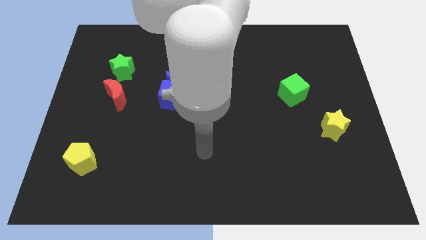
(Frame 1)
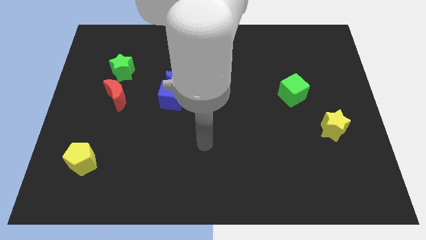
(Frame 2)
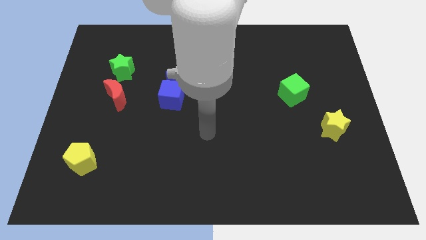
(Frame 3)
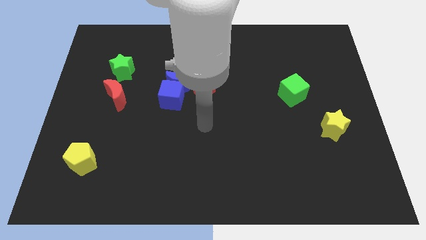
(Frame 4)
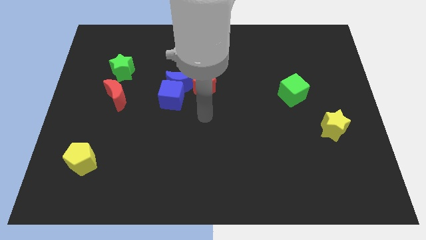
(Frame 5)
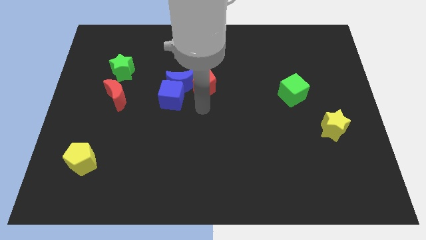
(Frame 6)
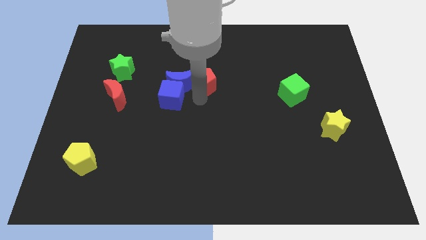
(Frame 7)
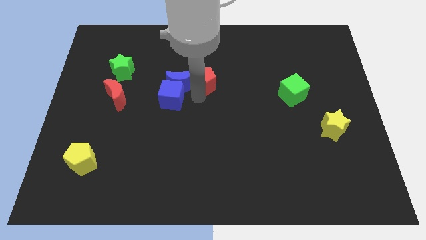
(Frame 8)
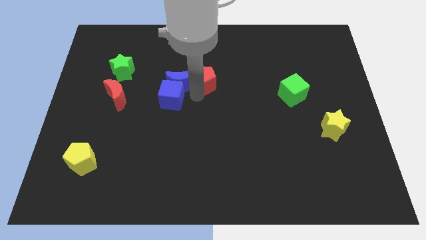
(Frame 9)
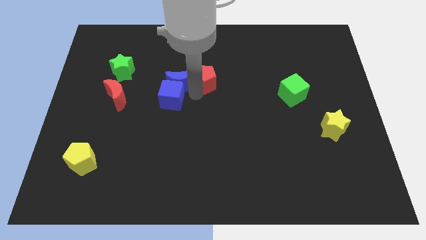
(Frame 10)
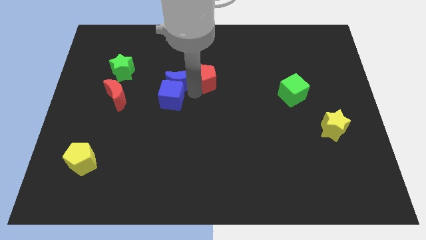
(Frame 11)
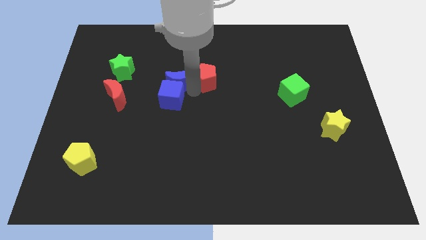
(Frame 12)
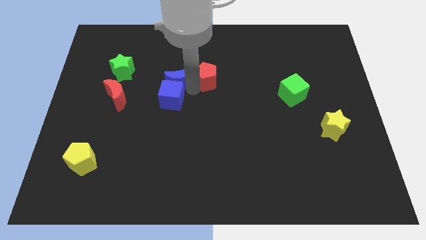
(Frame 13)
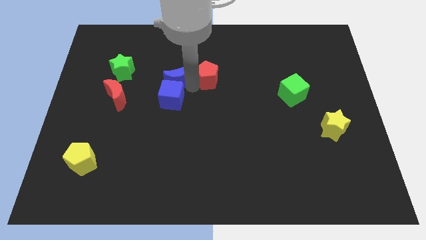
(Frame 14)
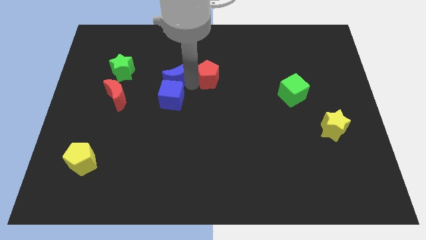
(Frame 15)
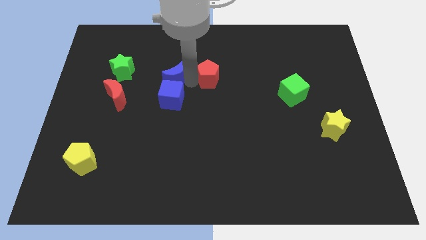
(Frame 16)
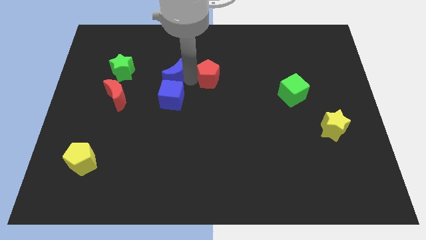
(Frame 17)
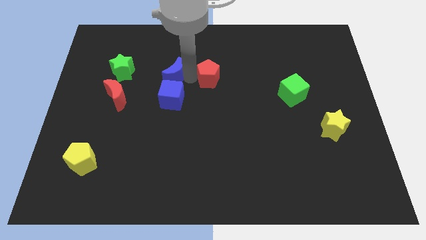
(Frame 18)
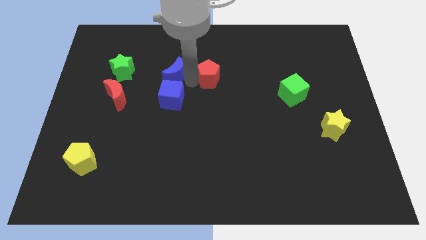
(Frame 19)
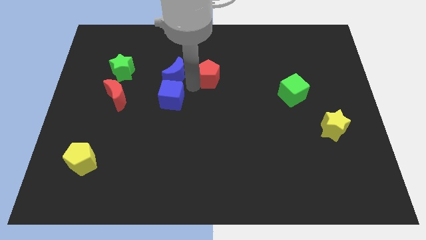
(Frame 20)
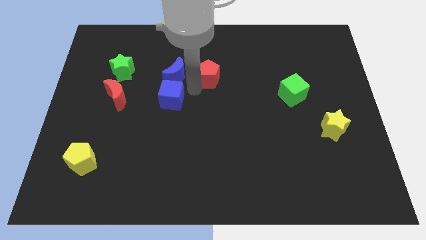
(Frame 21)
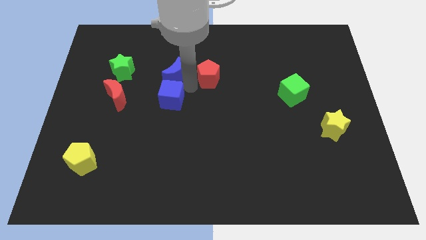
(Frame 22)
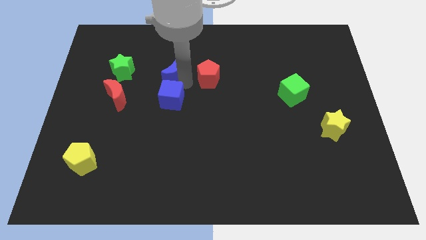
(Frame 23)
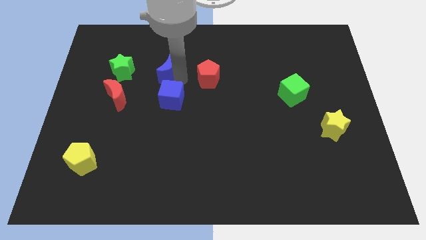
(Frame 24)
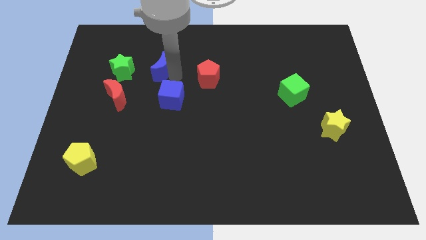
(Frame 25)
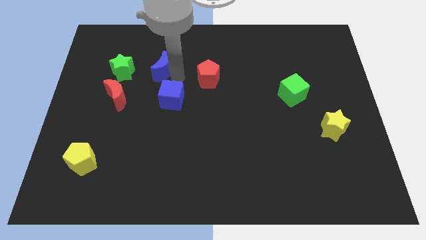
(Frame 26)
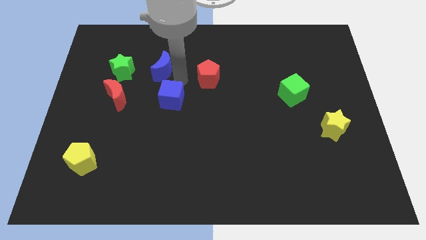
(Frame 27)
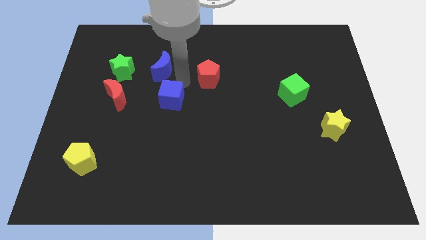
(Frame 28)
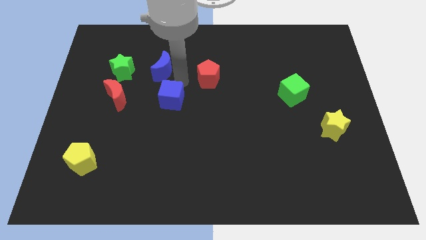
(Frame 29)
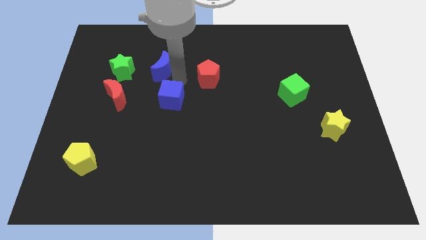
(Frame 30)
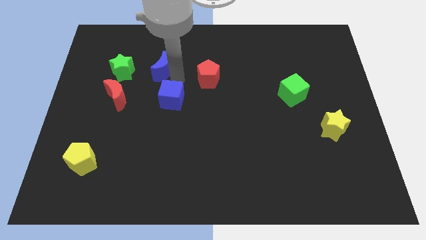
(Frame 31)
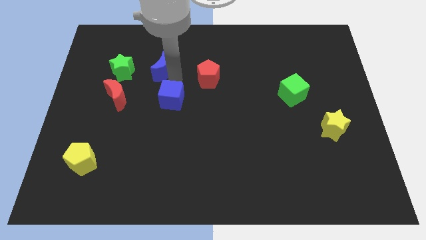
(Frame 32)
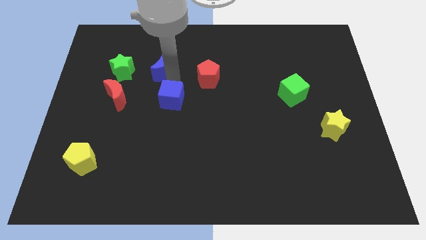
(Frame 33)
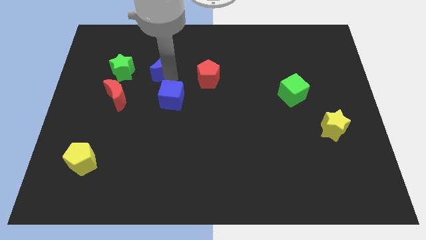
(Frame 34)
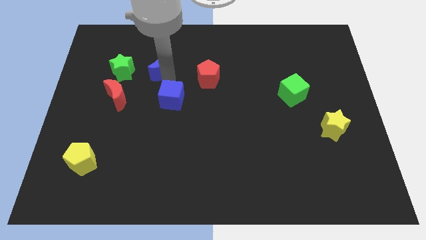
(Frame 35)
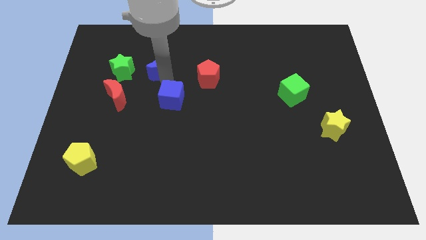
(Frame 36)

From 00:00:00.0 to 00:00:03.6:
pull the blue moon apart from the blue cube and red pentagon

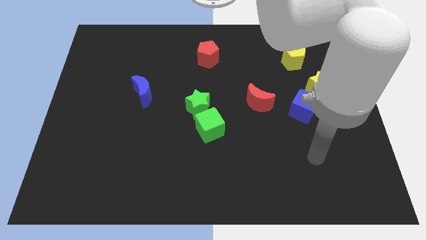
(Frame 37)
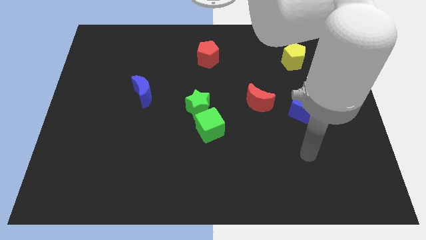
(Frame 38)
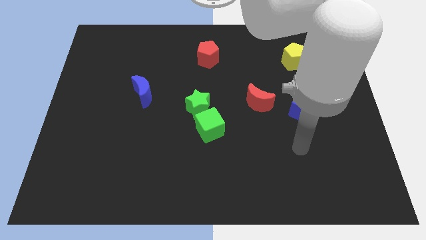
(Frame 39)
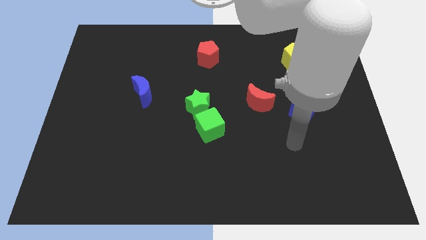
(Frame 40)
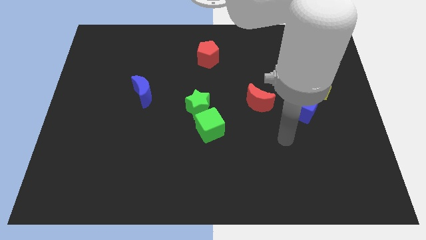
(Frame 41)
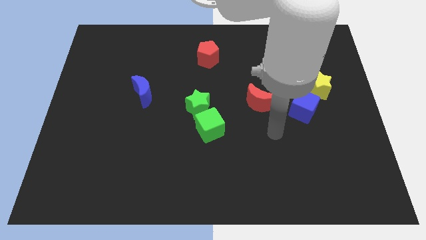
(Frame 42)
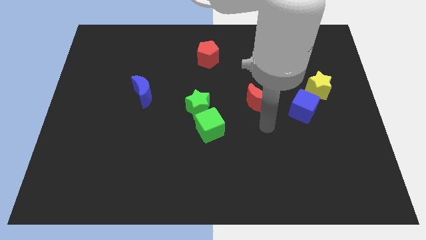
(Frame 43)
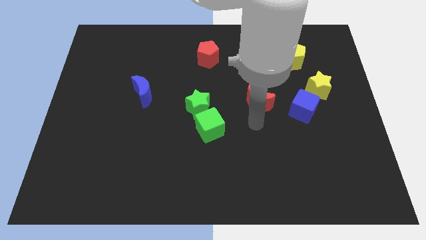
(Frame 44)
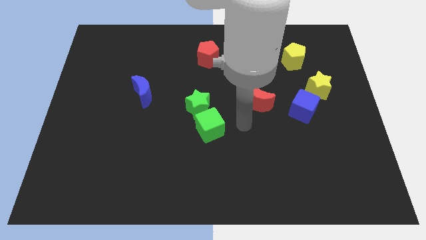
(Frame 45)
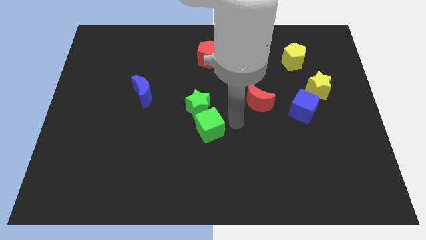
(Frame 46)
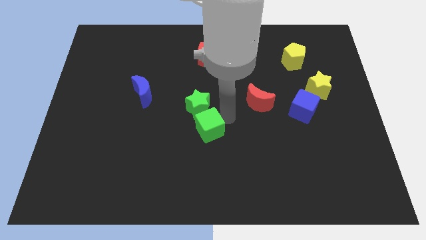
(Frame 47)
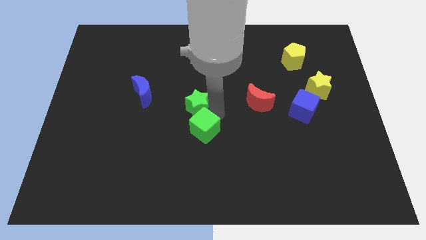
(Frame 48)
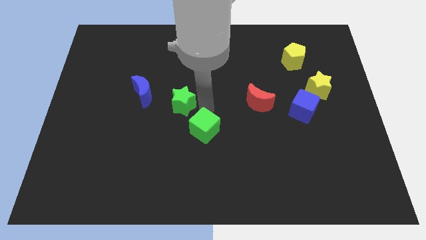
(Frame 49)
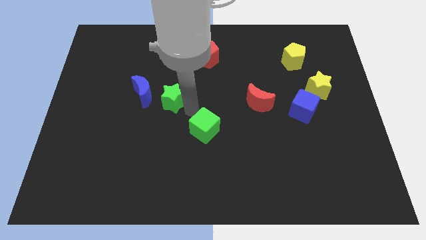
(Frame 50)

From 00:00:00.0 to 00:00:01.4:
pull the green cube apart from the green star

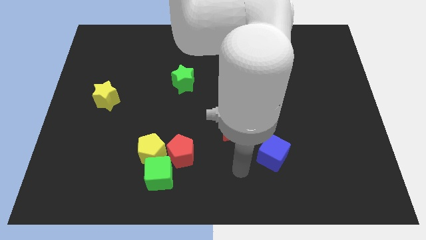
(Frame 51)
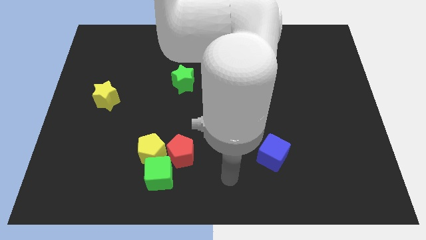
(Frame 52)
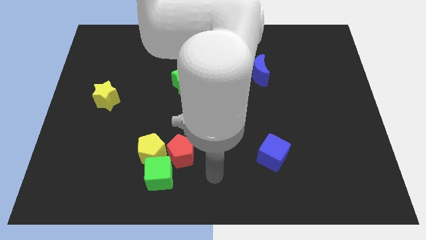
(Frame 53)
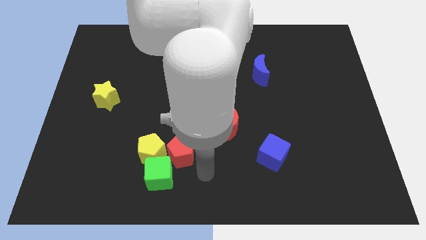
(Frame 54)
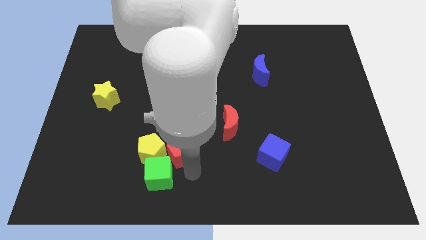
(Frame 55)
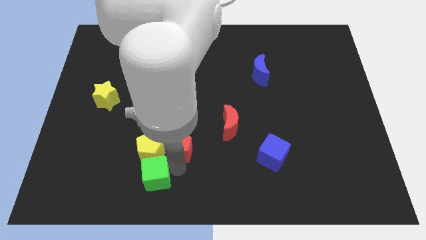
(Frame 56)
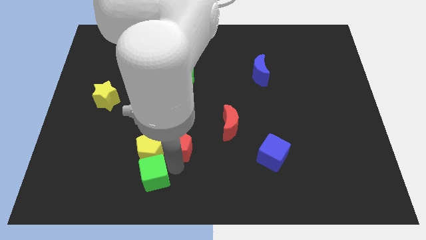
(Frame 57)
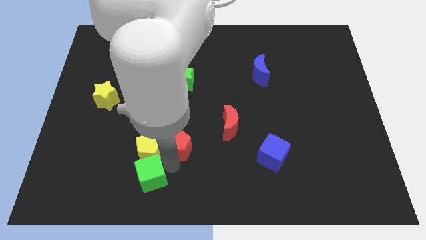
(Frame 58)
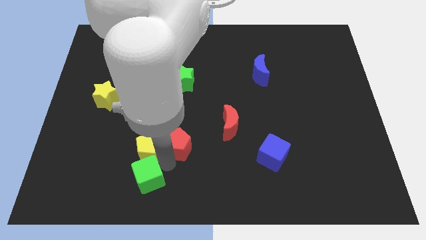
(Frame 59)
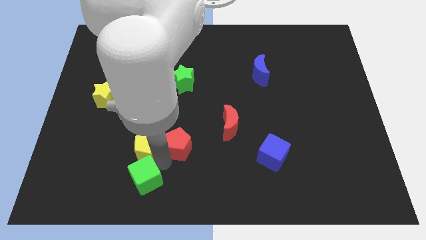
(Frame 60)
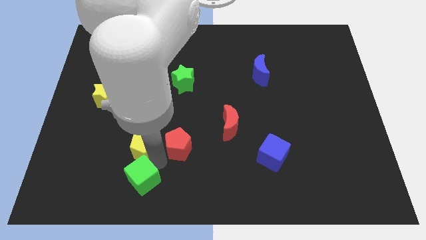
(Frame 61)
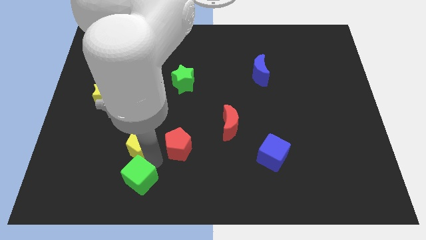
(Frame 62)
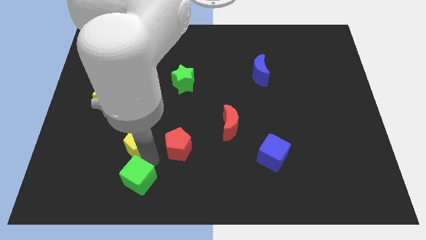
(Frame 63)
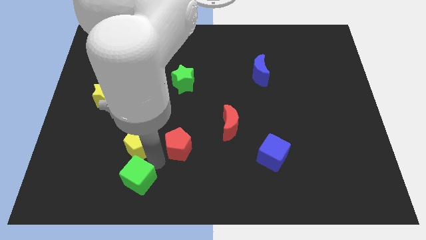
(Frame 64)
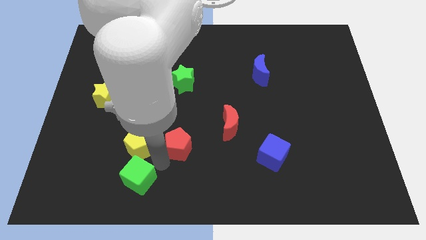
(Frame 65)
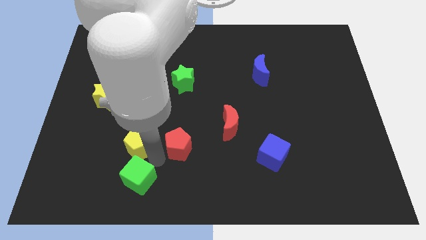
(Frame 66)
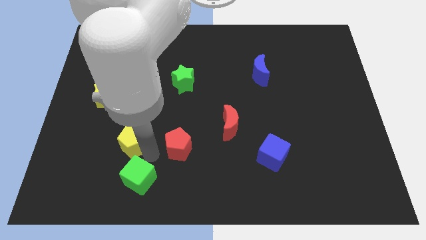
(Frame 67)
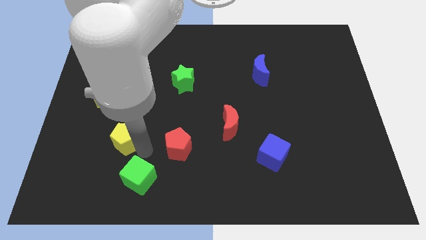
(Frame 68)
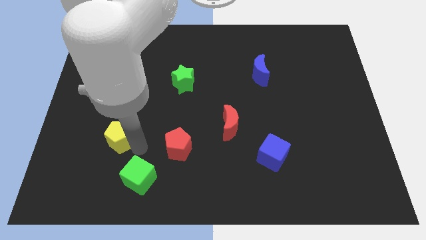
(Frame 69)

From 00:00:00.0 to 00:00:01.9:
separate the yellow pentagon from the green cube and red pentagon

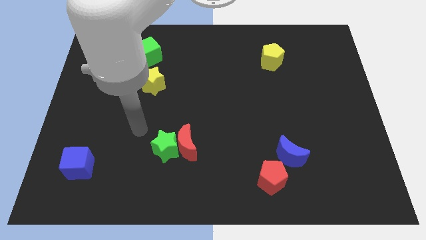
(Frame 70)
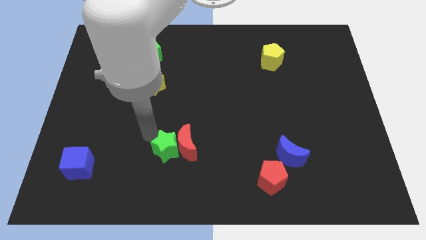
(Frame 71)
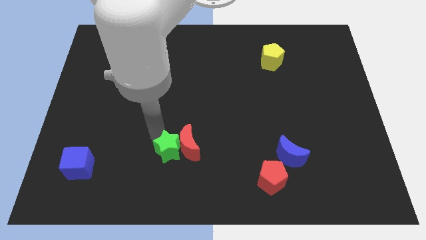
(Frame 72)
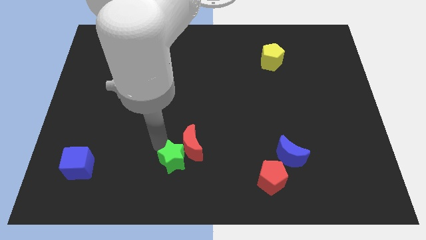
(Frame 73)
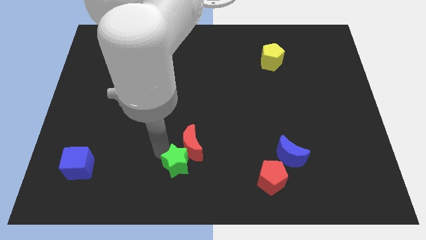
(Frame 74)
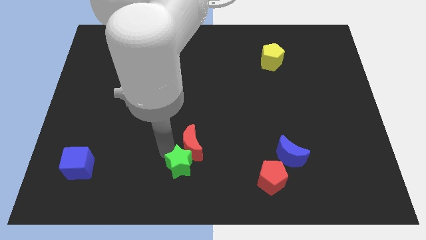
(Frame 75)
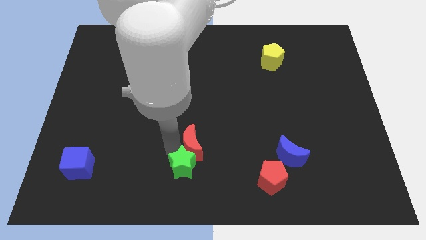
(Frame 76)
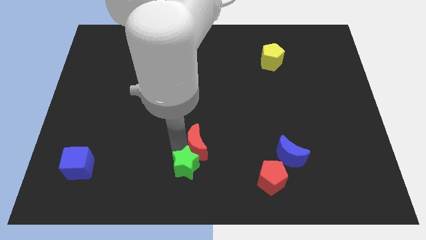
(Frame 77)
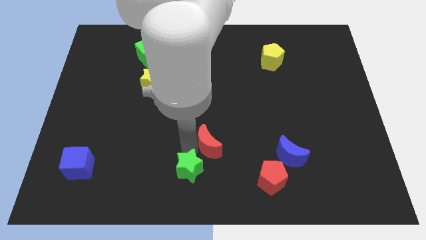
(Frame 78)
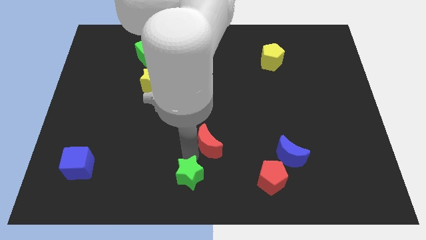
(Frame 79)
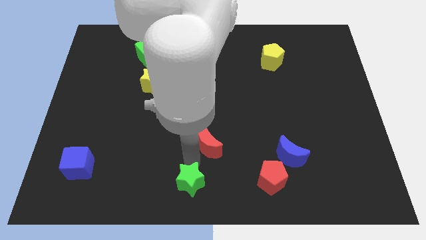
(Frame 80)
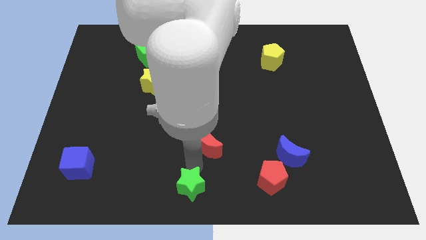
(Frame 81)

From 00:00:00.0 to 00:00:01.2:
move the red moon away from the green star

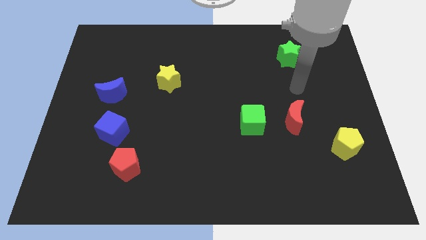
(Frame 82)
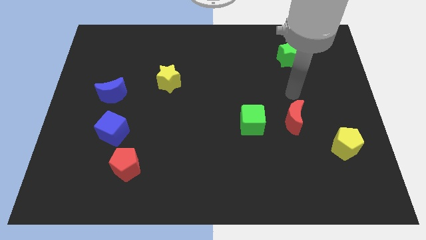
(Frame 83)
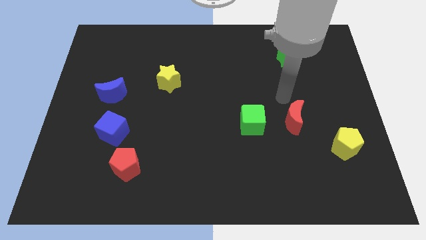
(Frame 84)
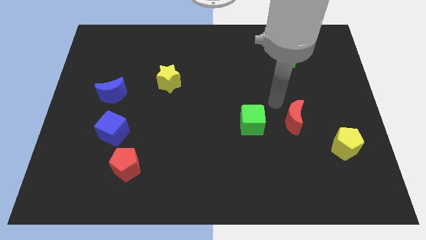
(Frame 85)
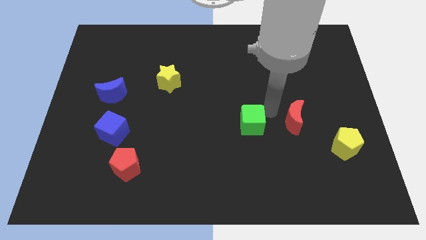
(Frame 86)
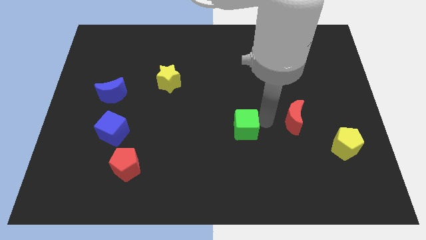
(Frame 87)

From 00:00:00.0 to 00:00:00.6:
move the red moon away from the green cube

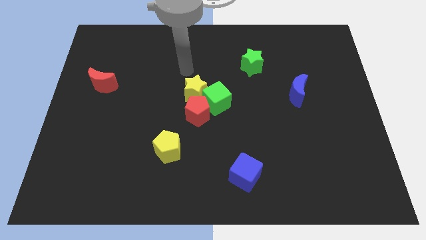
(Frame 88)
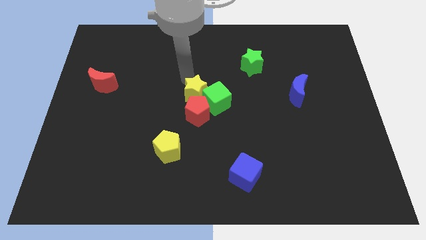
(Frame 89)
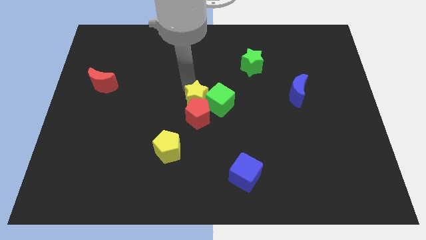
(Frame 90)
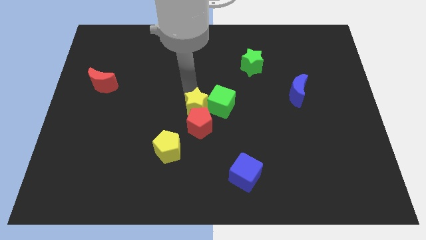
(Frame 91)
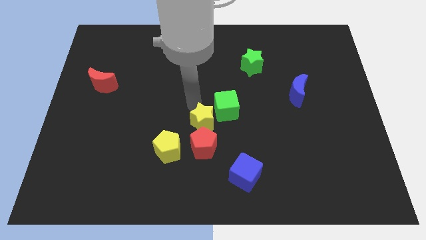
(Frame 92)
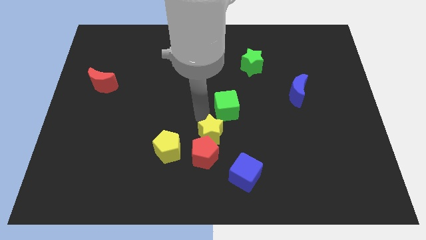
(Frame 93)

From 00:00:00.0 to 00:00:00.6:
move the green cube away from the red pentagon and yellow star
